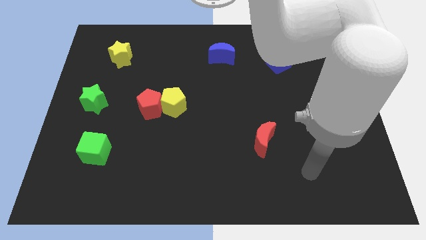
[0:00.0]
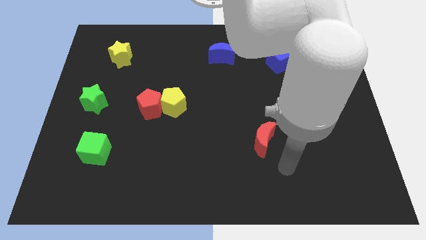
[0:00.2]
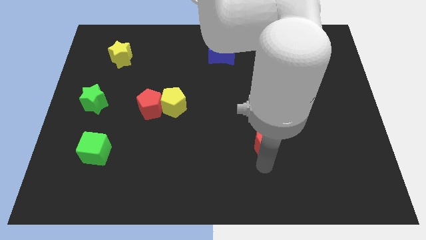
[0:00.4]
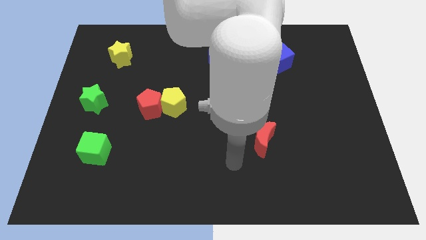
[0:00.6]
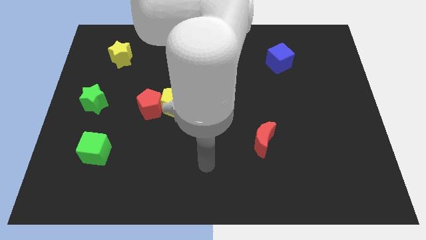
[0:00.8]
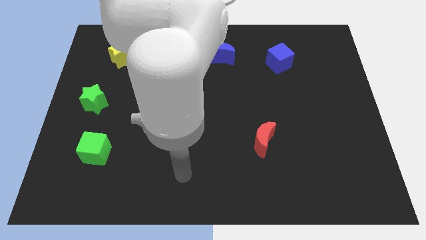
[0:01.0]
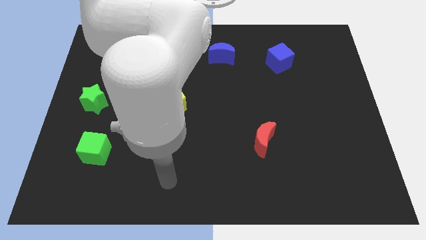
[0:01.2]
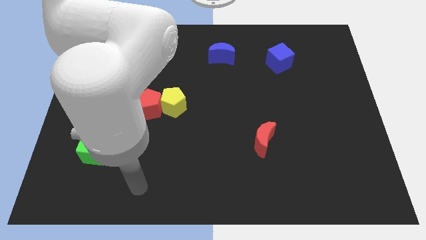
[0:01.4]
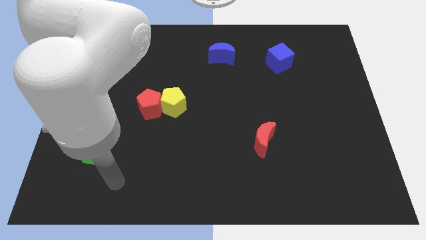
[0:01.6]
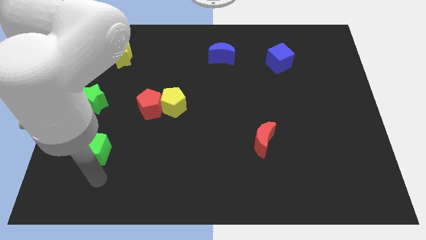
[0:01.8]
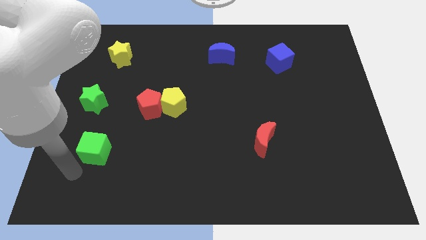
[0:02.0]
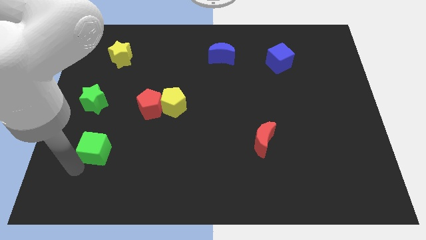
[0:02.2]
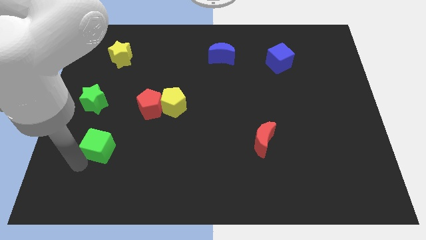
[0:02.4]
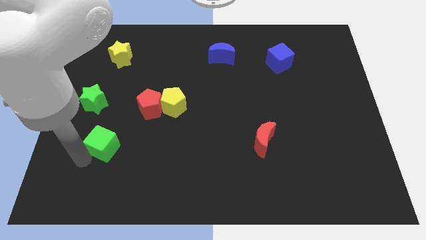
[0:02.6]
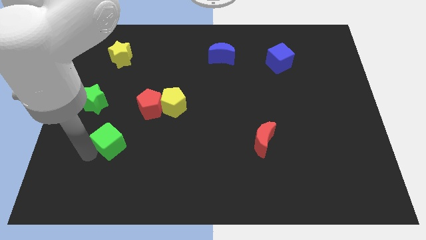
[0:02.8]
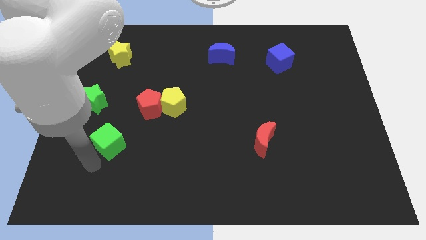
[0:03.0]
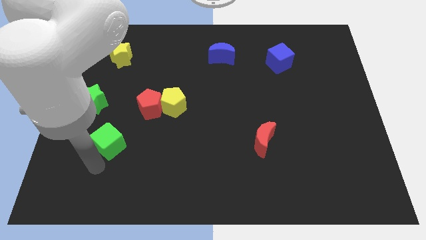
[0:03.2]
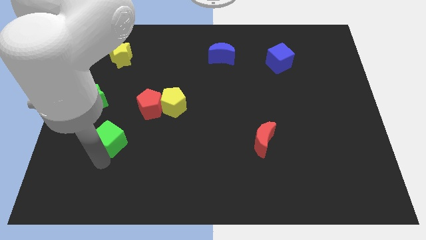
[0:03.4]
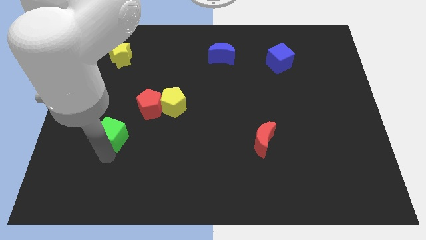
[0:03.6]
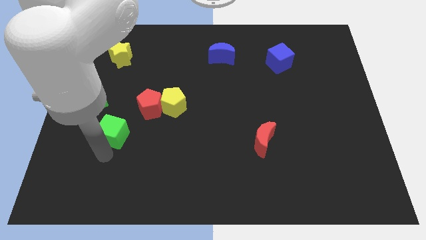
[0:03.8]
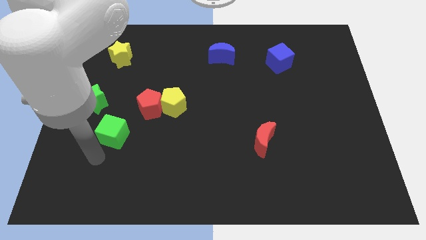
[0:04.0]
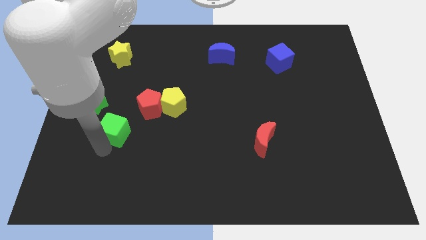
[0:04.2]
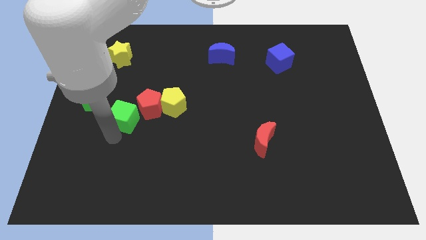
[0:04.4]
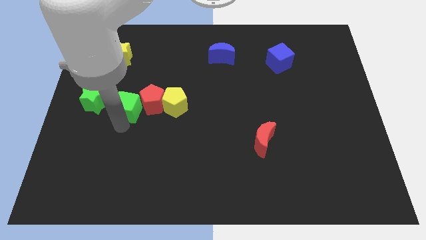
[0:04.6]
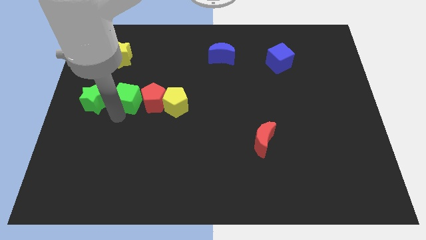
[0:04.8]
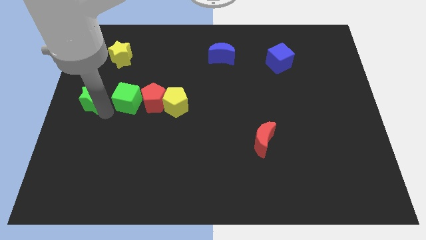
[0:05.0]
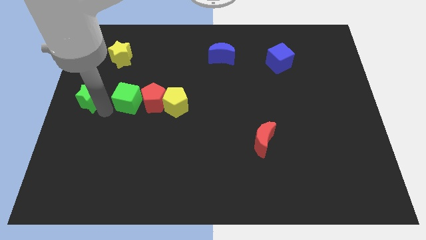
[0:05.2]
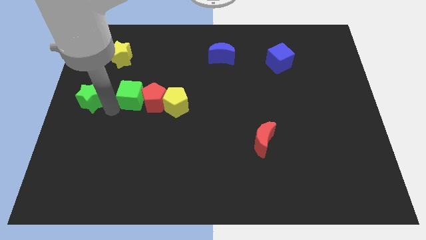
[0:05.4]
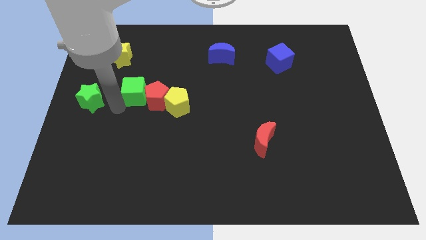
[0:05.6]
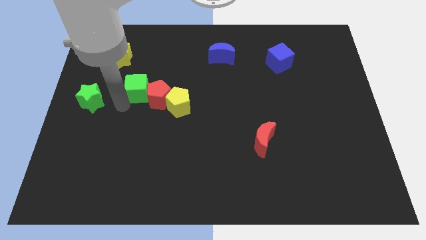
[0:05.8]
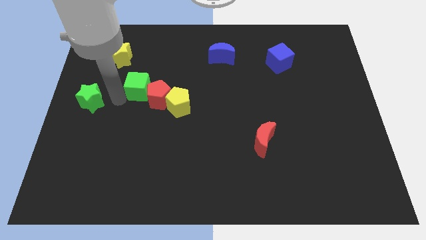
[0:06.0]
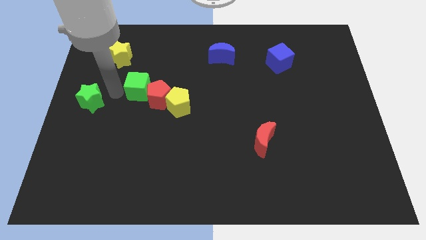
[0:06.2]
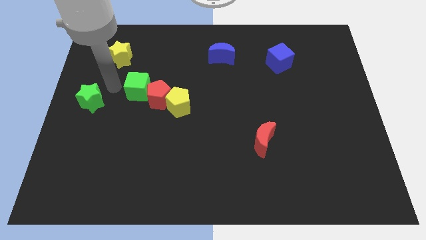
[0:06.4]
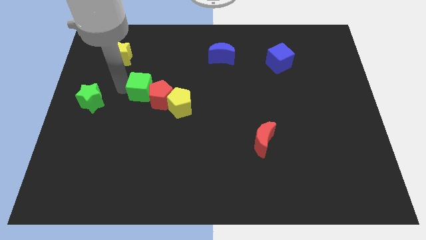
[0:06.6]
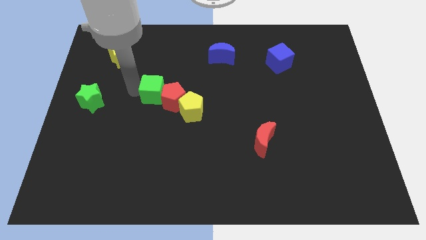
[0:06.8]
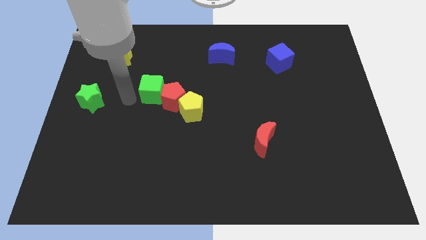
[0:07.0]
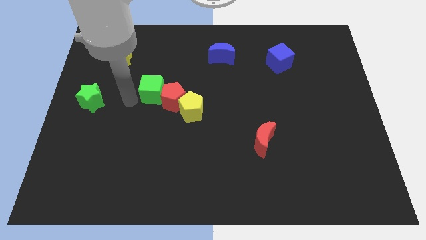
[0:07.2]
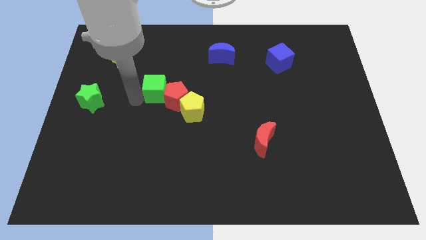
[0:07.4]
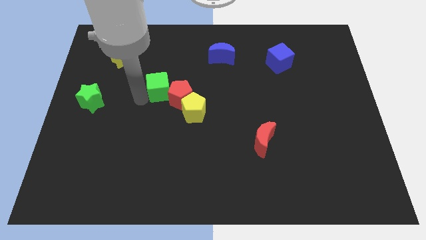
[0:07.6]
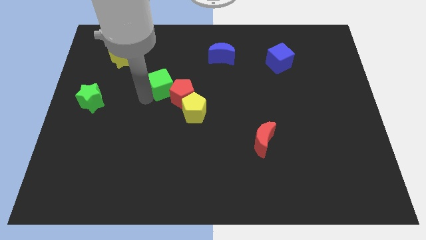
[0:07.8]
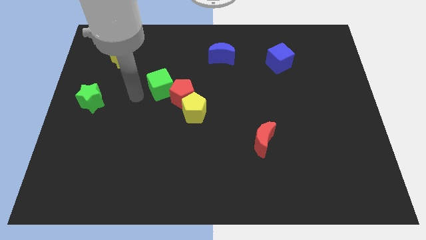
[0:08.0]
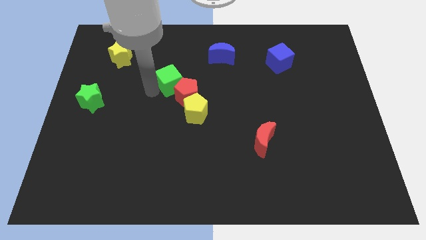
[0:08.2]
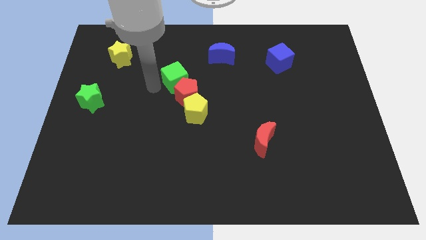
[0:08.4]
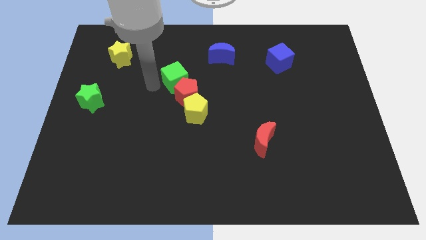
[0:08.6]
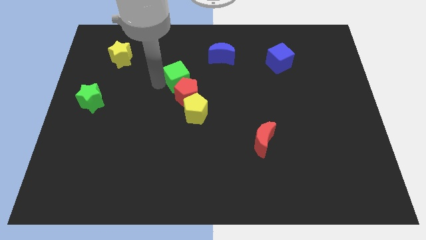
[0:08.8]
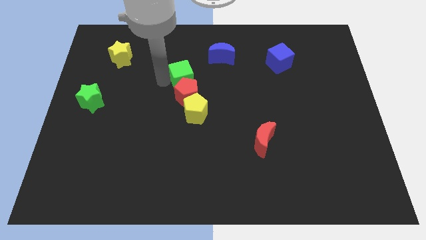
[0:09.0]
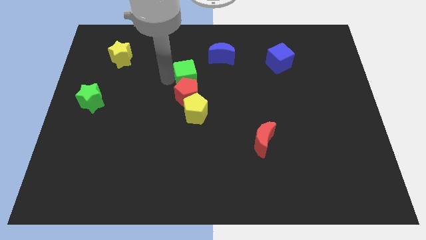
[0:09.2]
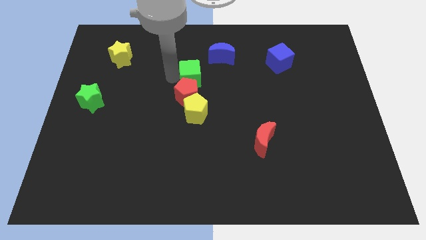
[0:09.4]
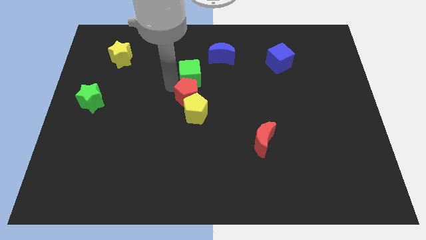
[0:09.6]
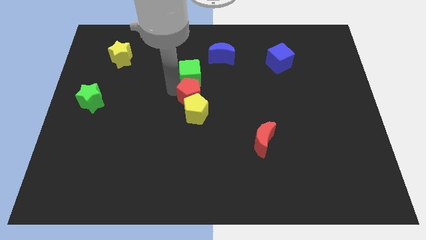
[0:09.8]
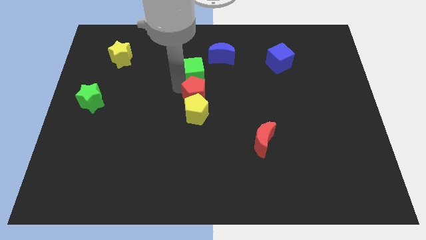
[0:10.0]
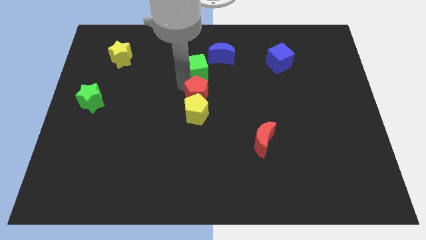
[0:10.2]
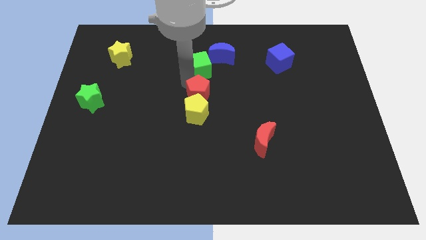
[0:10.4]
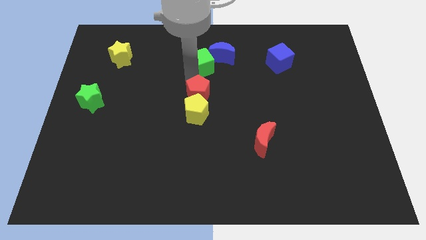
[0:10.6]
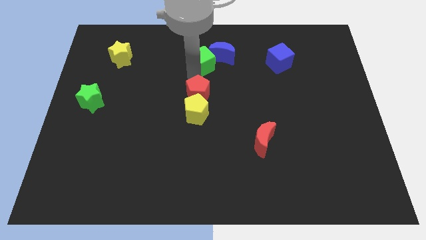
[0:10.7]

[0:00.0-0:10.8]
slide the green cube towards the blue moon

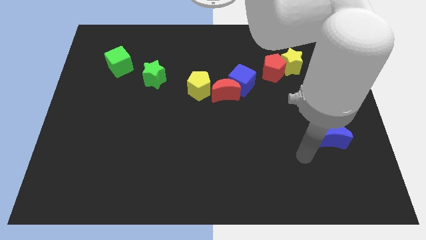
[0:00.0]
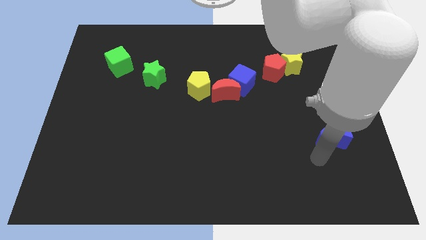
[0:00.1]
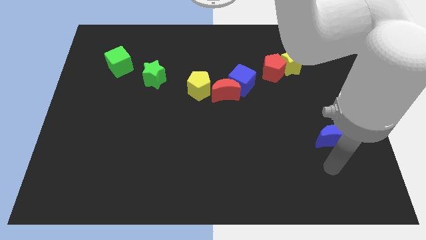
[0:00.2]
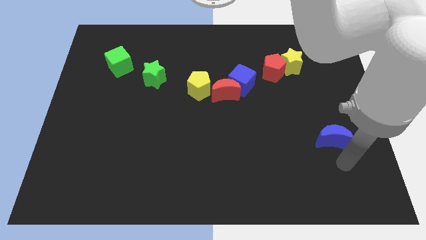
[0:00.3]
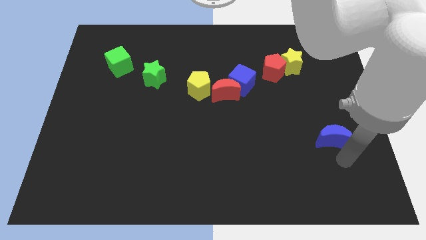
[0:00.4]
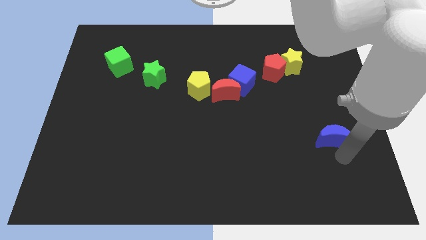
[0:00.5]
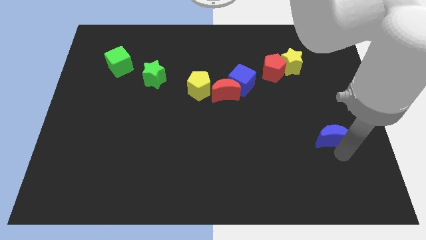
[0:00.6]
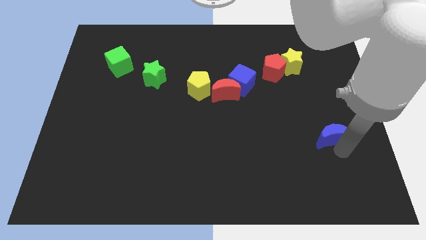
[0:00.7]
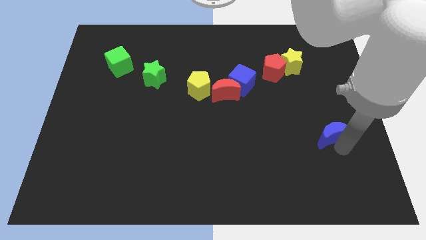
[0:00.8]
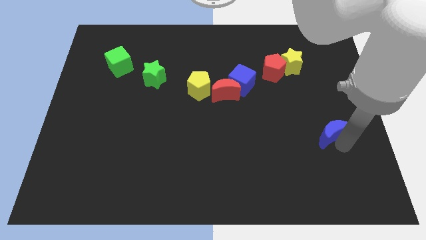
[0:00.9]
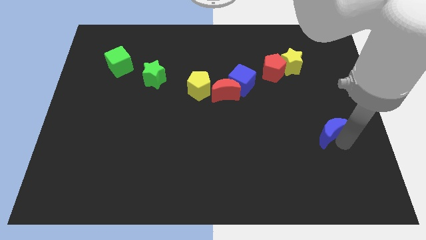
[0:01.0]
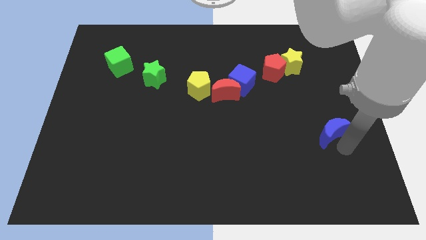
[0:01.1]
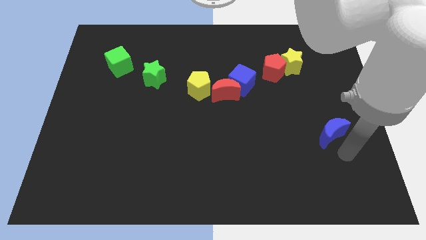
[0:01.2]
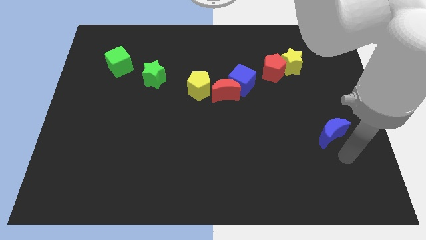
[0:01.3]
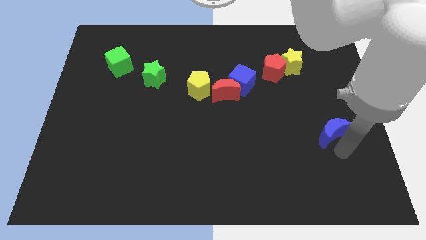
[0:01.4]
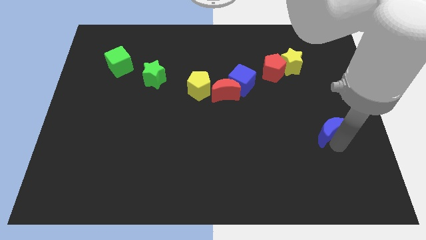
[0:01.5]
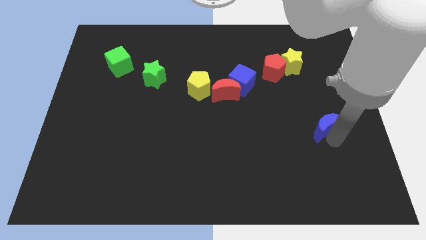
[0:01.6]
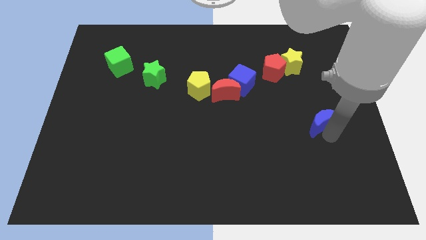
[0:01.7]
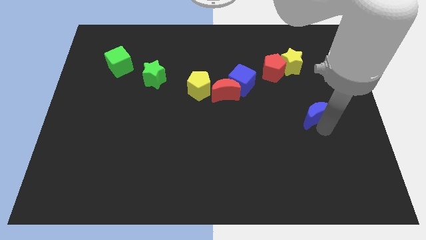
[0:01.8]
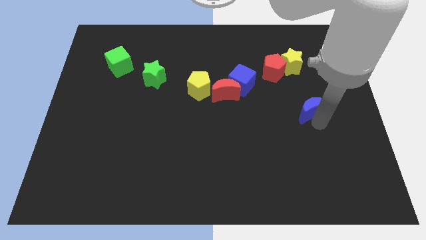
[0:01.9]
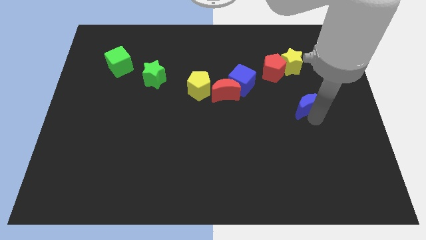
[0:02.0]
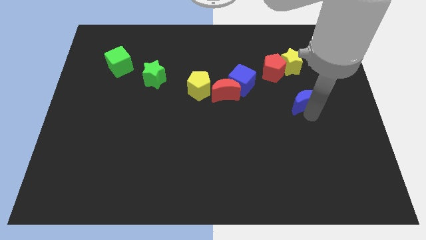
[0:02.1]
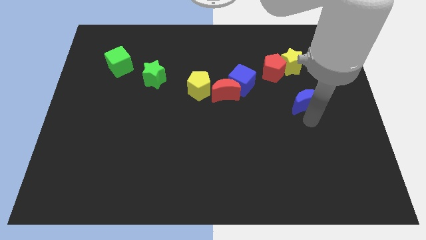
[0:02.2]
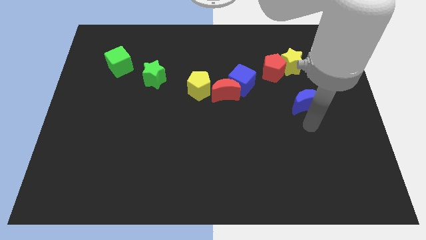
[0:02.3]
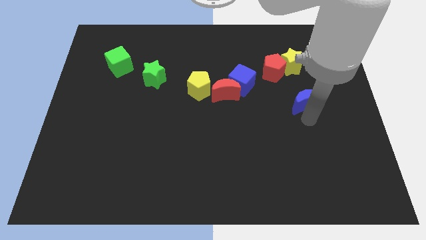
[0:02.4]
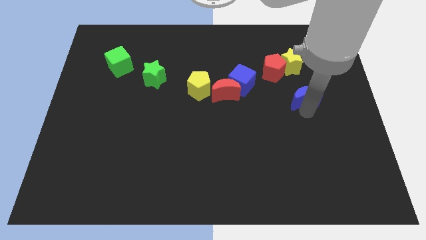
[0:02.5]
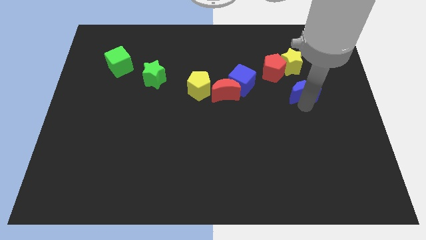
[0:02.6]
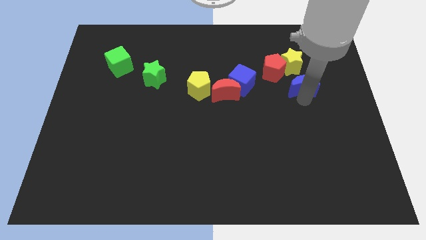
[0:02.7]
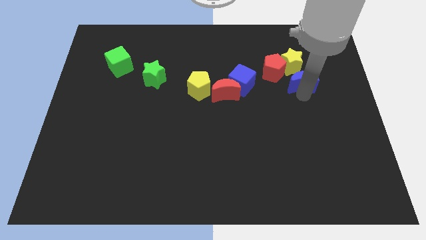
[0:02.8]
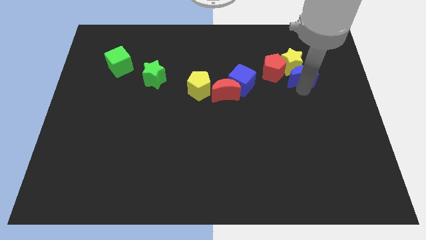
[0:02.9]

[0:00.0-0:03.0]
move the blue moon to the yellow star
